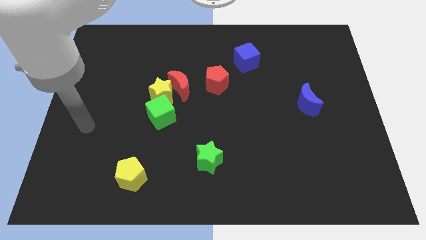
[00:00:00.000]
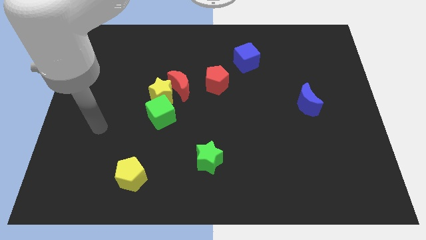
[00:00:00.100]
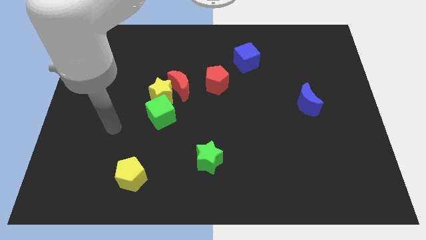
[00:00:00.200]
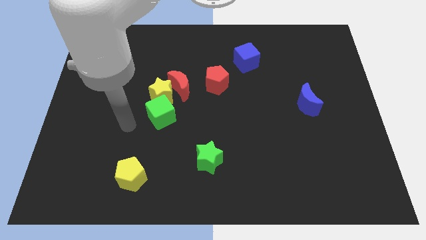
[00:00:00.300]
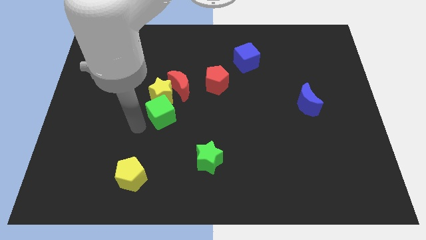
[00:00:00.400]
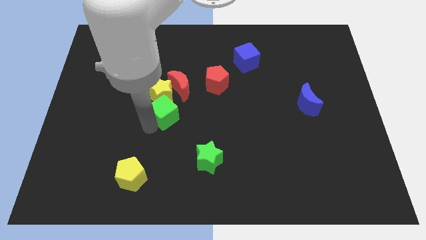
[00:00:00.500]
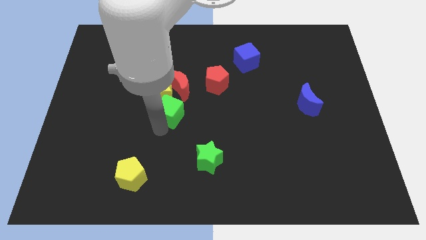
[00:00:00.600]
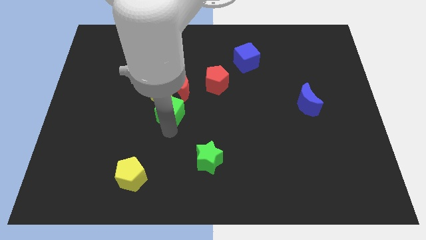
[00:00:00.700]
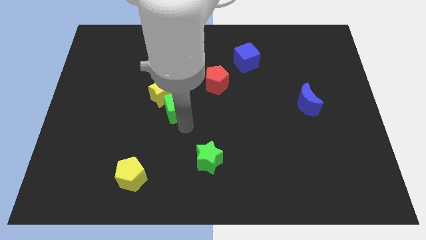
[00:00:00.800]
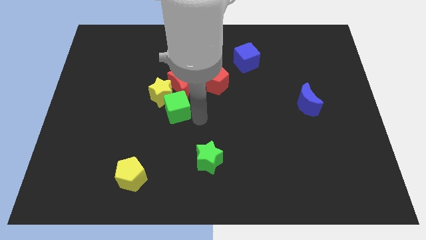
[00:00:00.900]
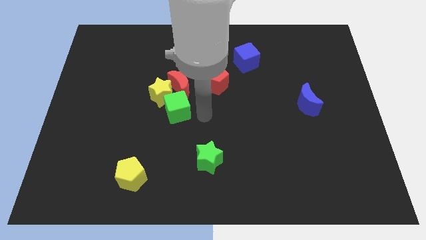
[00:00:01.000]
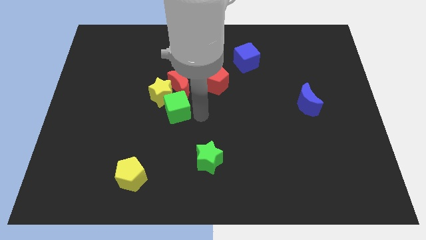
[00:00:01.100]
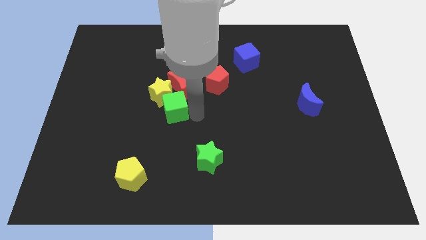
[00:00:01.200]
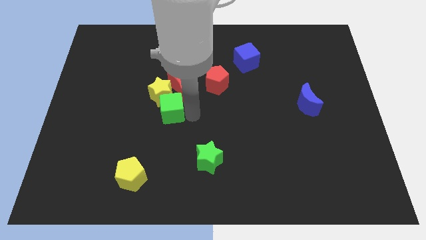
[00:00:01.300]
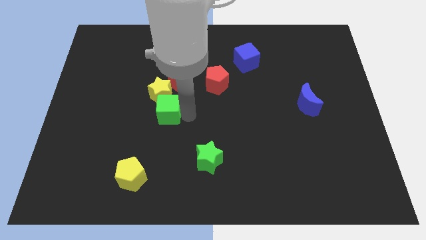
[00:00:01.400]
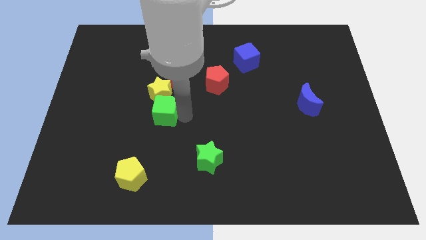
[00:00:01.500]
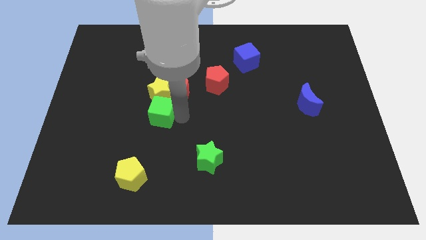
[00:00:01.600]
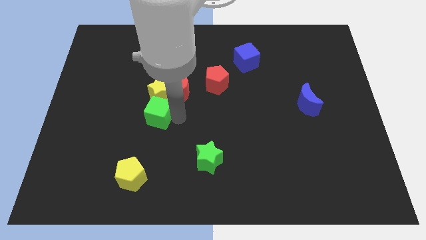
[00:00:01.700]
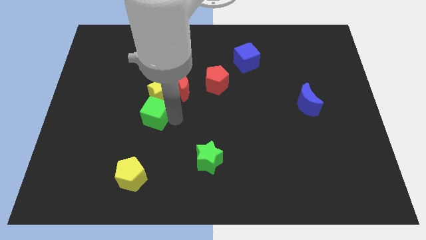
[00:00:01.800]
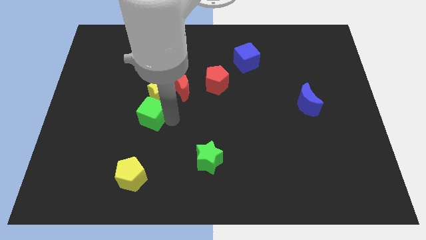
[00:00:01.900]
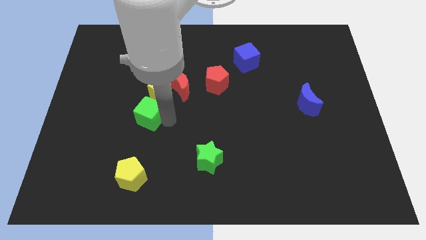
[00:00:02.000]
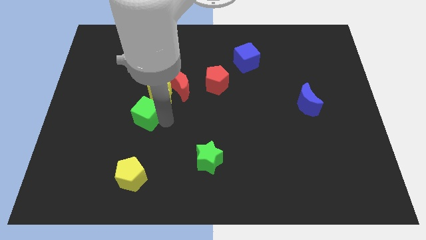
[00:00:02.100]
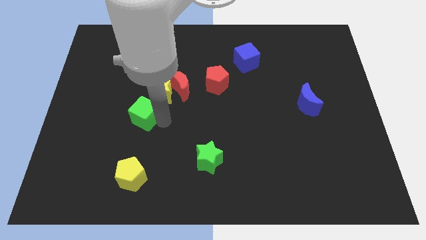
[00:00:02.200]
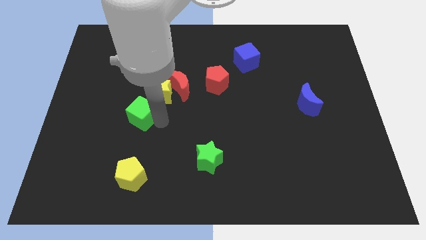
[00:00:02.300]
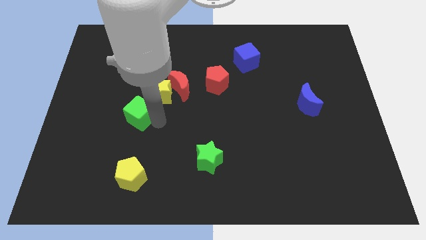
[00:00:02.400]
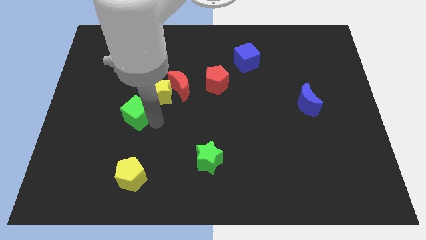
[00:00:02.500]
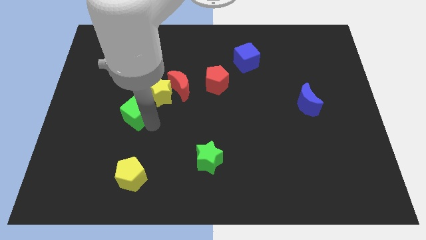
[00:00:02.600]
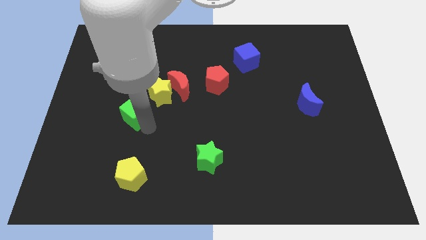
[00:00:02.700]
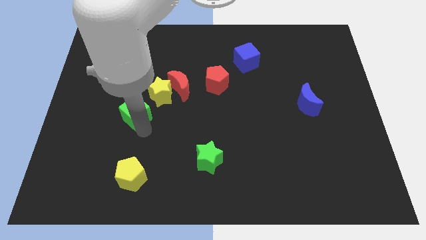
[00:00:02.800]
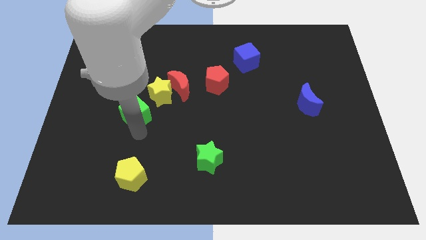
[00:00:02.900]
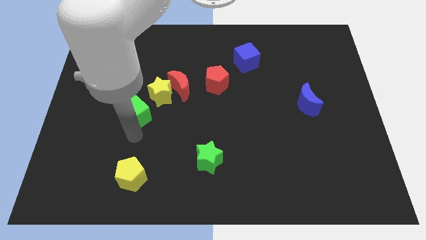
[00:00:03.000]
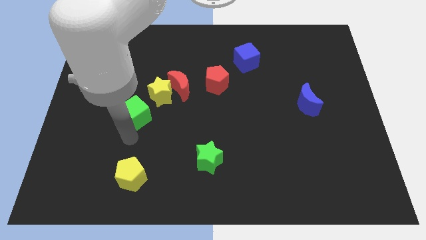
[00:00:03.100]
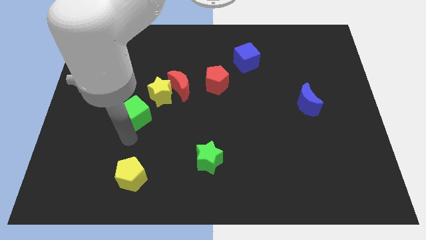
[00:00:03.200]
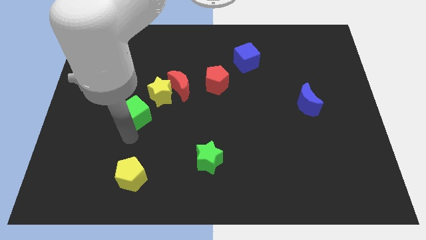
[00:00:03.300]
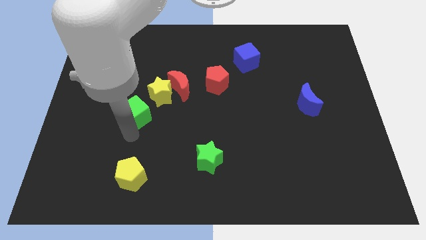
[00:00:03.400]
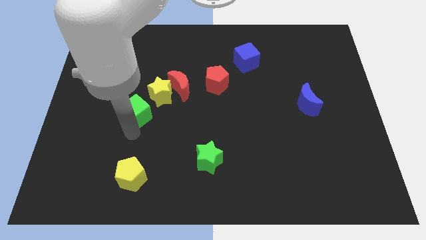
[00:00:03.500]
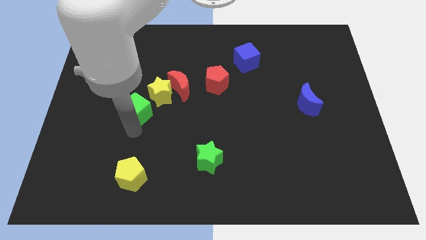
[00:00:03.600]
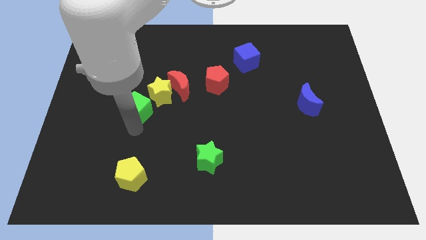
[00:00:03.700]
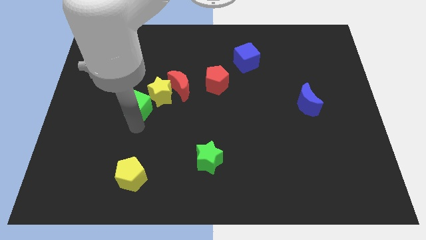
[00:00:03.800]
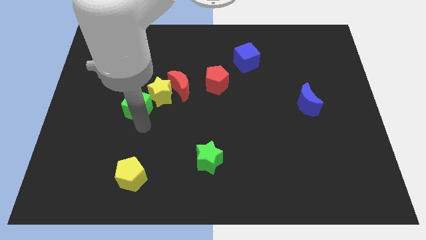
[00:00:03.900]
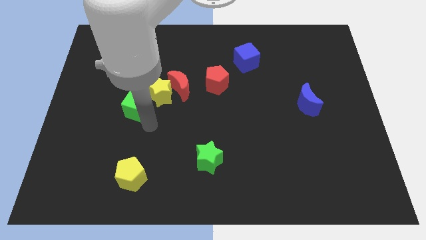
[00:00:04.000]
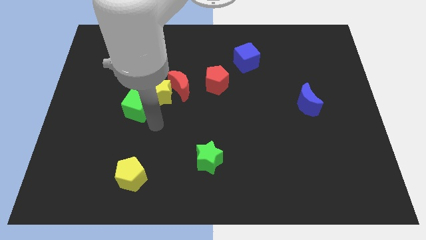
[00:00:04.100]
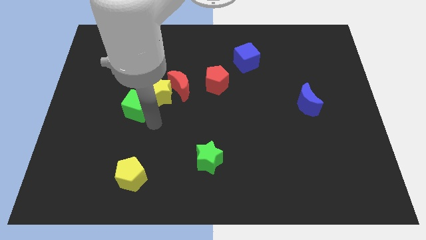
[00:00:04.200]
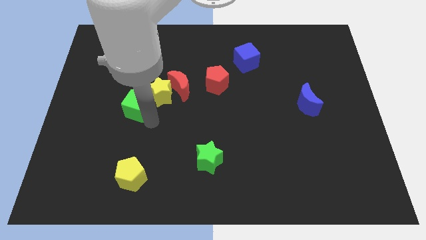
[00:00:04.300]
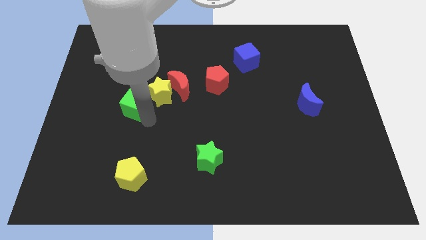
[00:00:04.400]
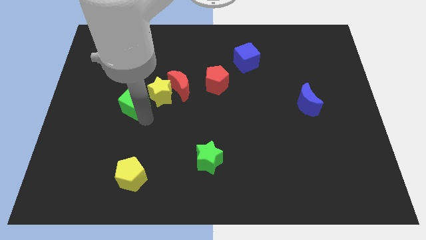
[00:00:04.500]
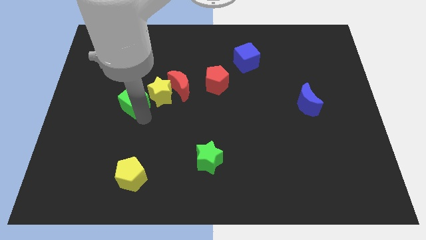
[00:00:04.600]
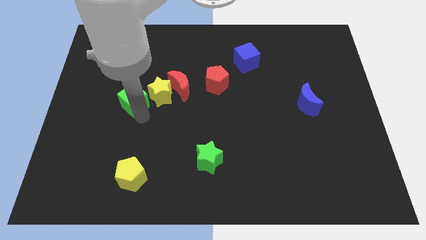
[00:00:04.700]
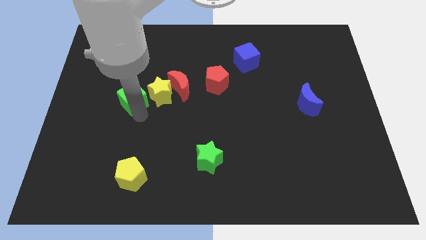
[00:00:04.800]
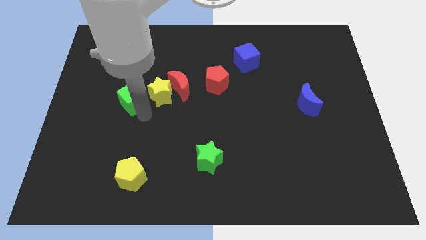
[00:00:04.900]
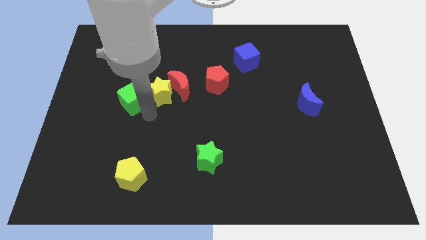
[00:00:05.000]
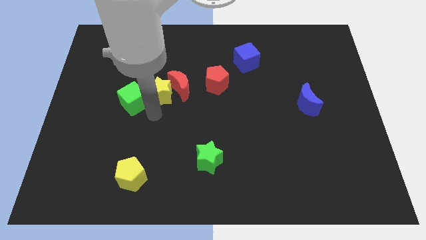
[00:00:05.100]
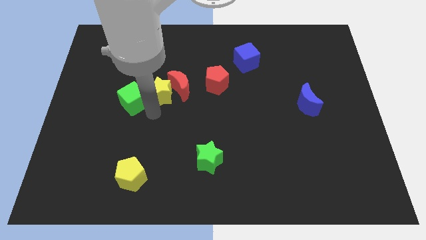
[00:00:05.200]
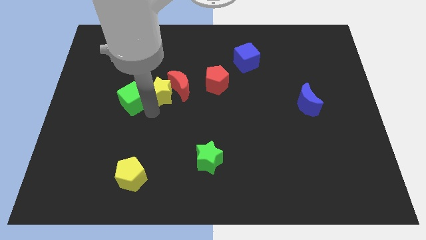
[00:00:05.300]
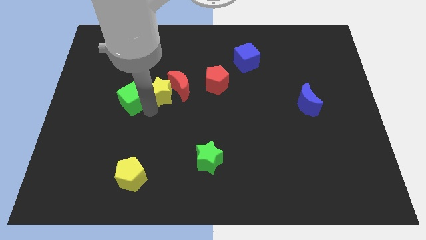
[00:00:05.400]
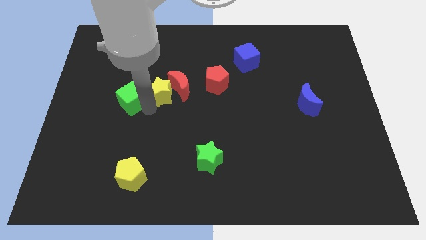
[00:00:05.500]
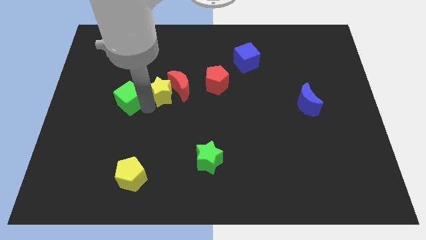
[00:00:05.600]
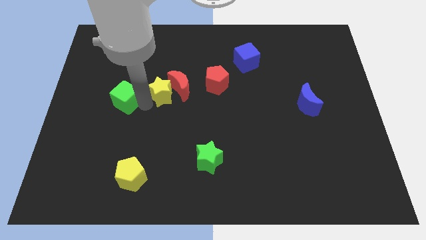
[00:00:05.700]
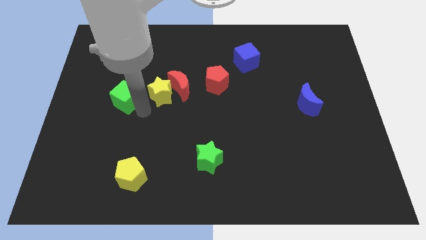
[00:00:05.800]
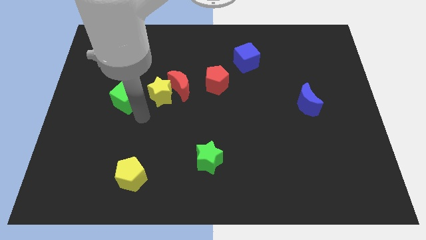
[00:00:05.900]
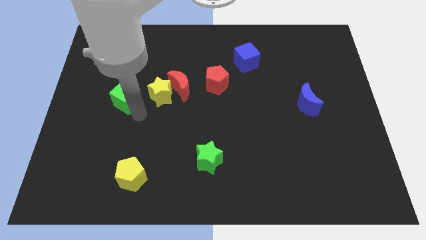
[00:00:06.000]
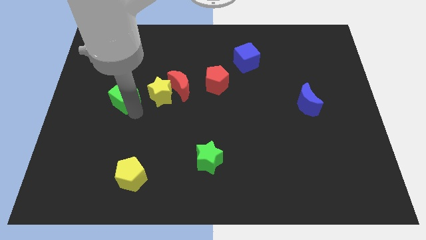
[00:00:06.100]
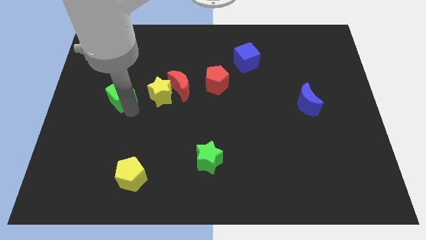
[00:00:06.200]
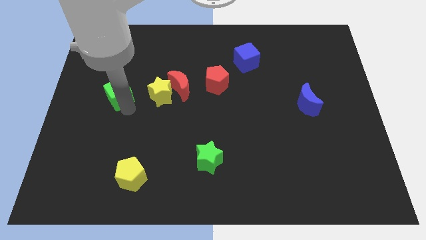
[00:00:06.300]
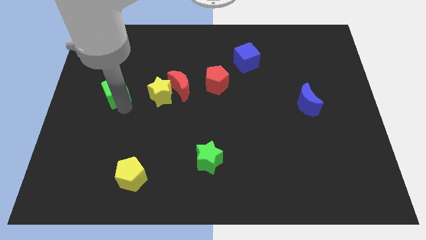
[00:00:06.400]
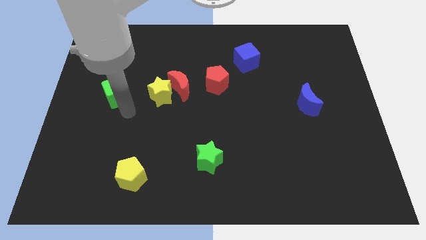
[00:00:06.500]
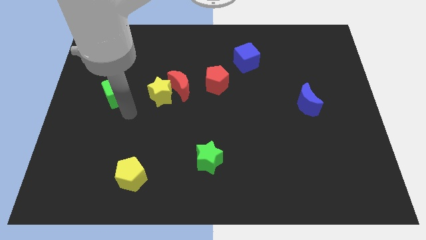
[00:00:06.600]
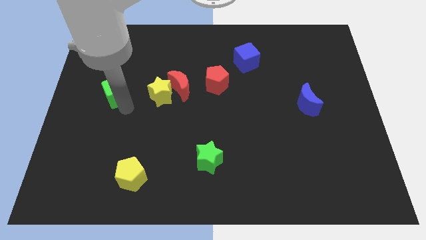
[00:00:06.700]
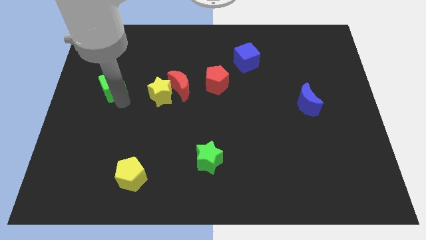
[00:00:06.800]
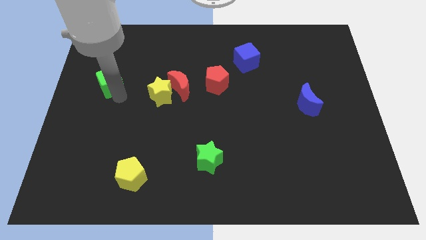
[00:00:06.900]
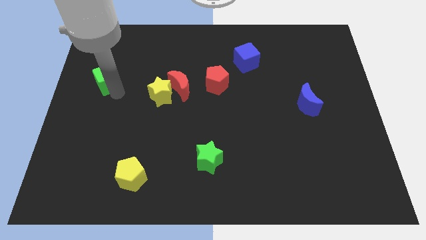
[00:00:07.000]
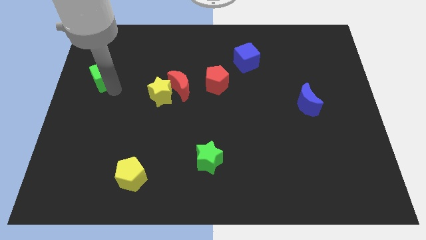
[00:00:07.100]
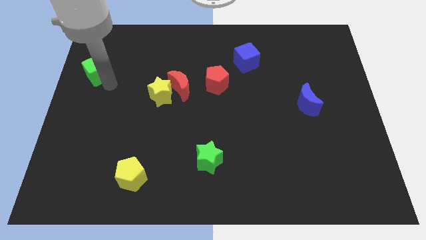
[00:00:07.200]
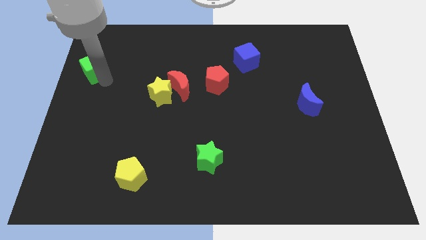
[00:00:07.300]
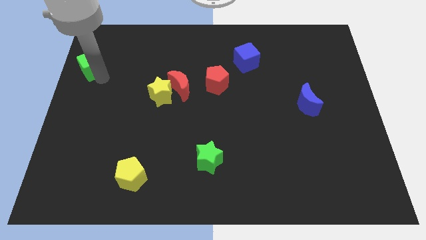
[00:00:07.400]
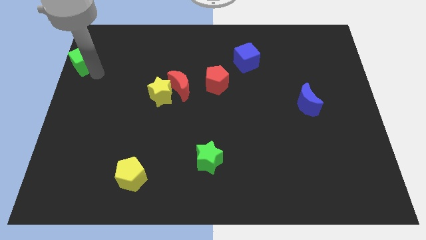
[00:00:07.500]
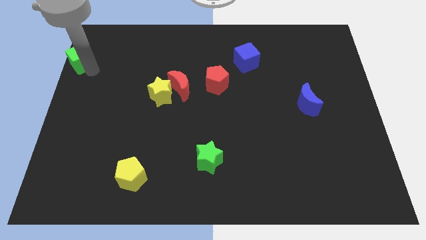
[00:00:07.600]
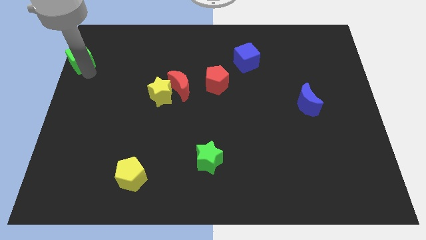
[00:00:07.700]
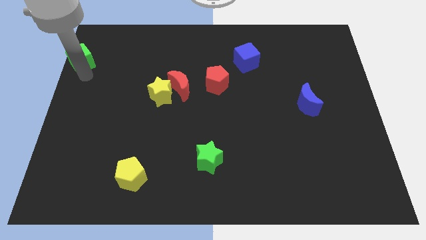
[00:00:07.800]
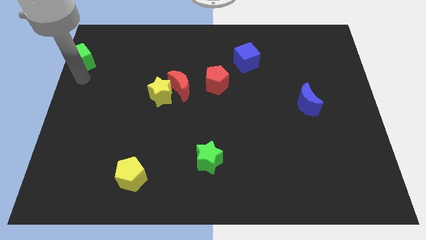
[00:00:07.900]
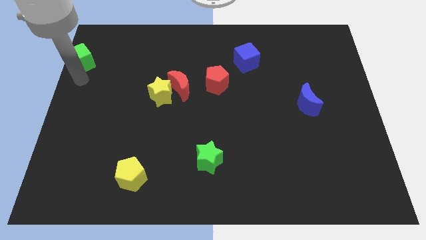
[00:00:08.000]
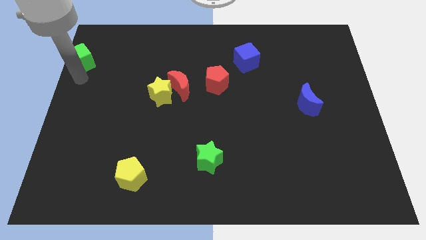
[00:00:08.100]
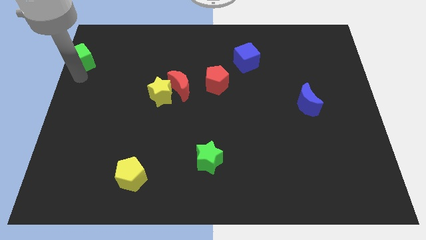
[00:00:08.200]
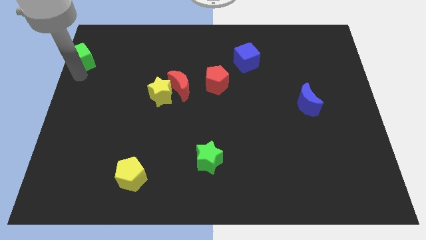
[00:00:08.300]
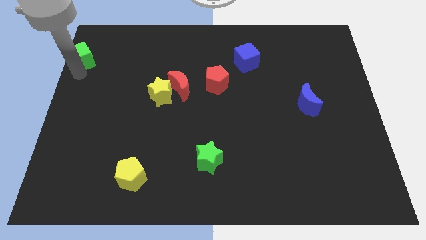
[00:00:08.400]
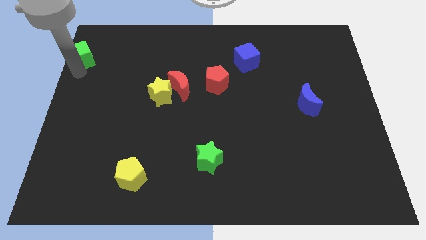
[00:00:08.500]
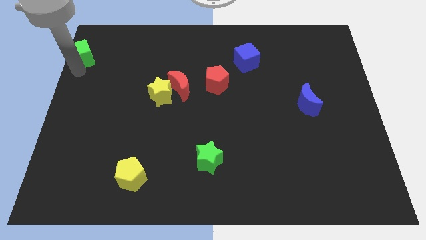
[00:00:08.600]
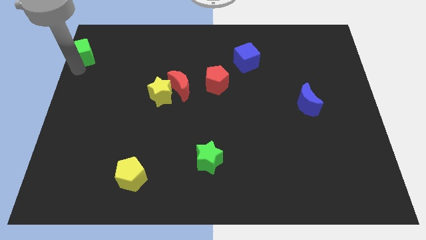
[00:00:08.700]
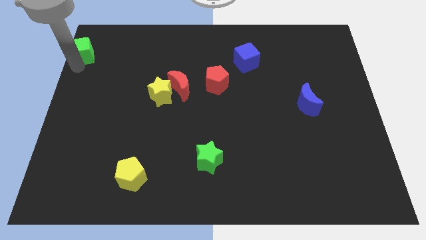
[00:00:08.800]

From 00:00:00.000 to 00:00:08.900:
slide the green cube to the top left of the board
